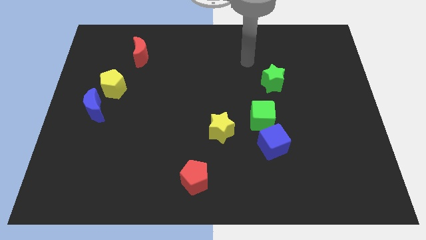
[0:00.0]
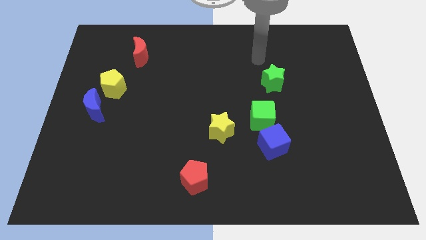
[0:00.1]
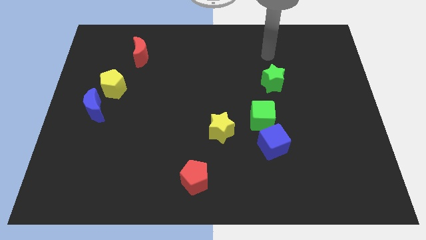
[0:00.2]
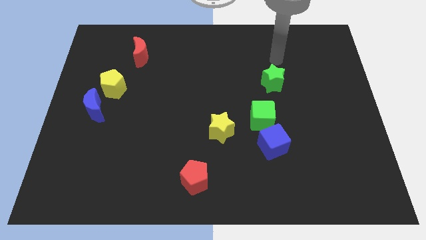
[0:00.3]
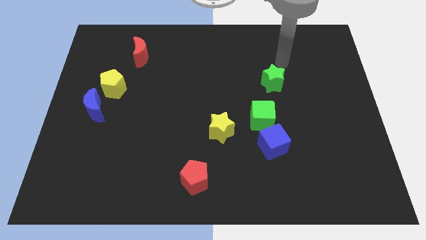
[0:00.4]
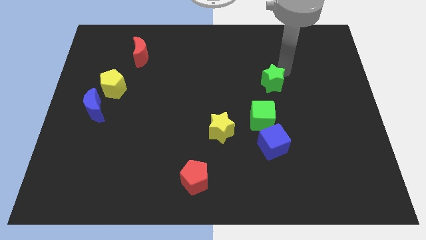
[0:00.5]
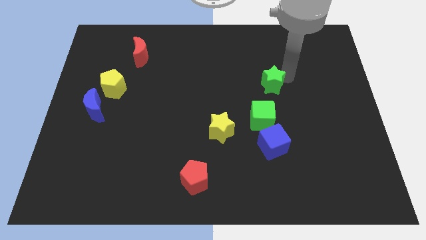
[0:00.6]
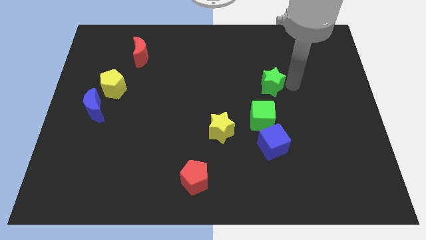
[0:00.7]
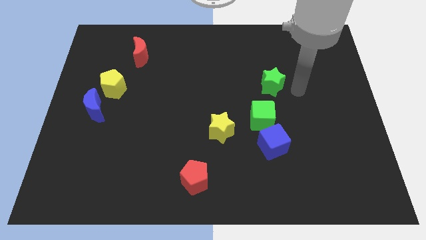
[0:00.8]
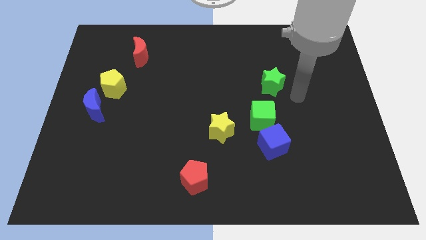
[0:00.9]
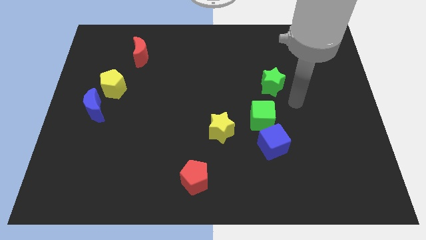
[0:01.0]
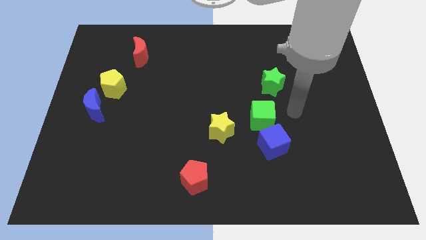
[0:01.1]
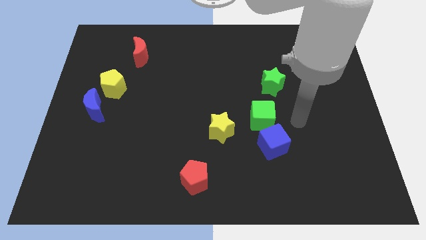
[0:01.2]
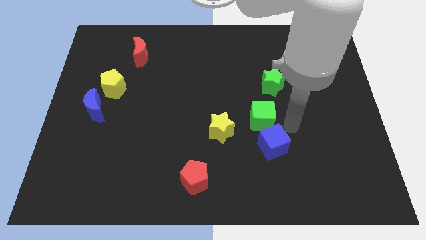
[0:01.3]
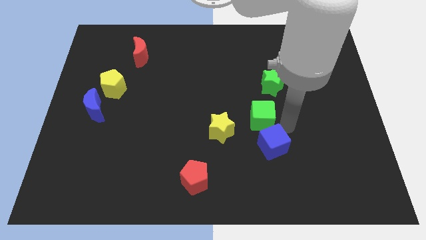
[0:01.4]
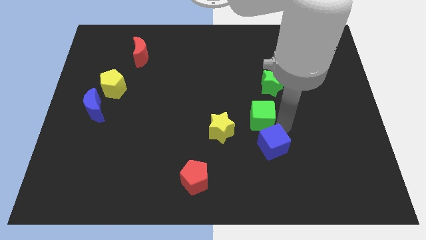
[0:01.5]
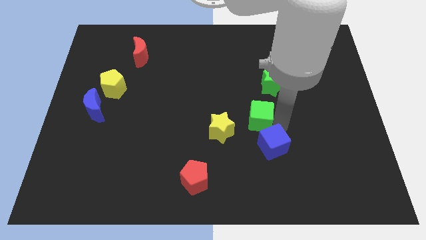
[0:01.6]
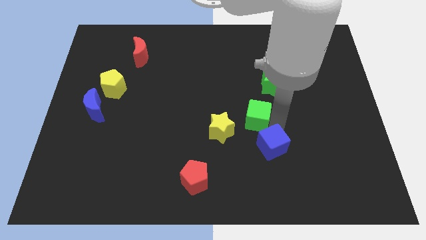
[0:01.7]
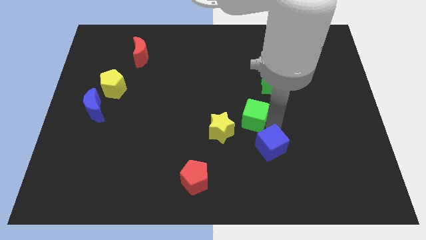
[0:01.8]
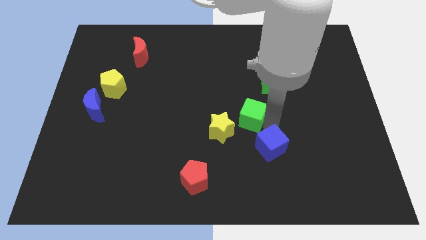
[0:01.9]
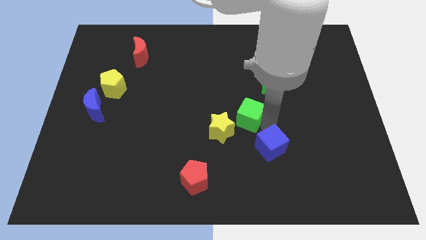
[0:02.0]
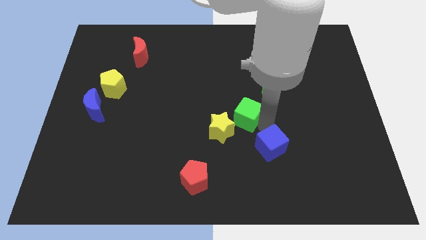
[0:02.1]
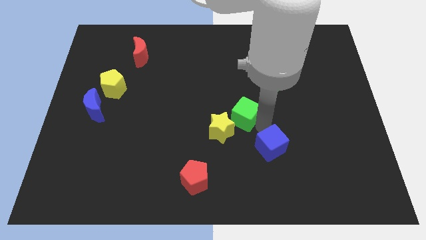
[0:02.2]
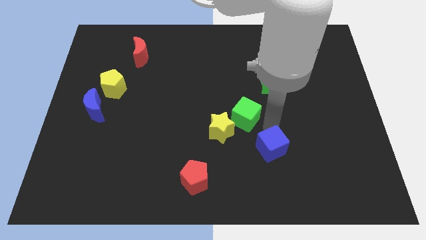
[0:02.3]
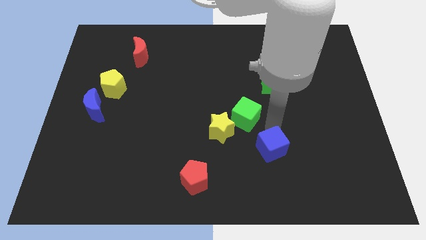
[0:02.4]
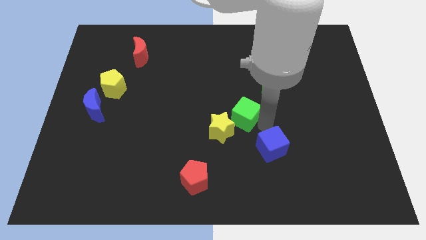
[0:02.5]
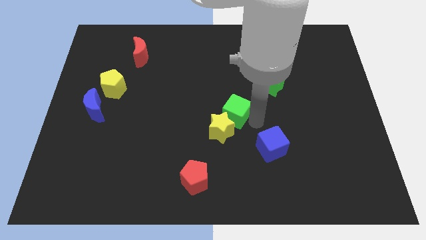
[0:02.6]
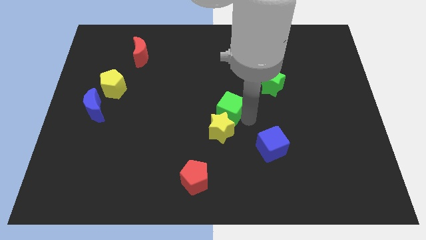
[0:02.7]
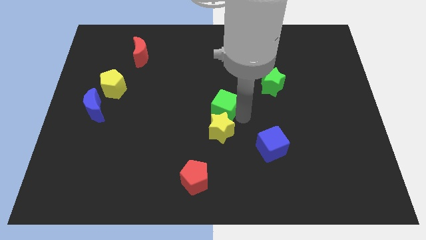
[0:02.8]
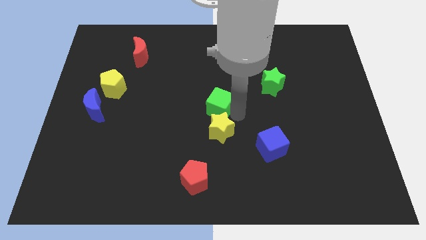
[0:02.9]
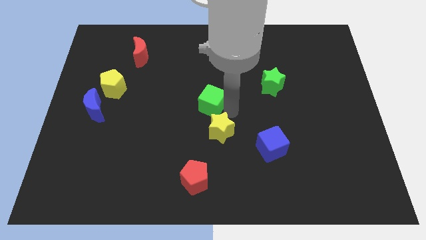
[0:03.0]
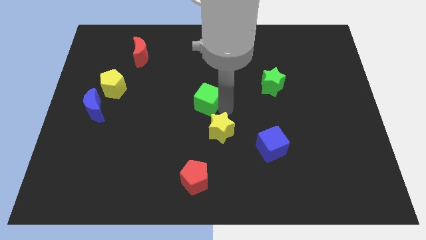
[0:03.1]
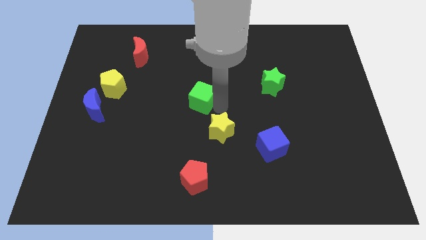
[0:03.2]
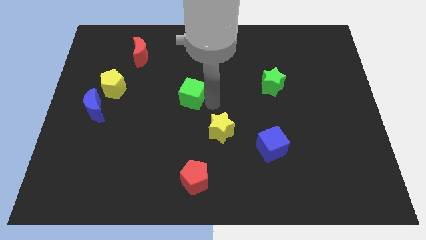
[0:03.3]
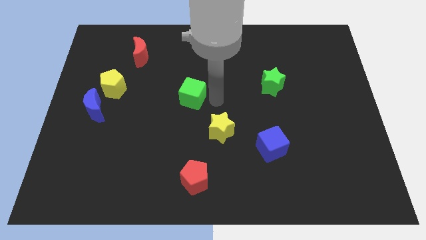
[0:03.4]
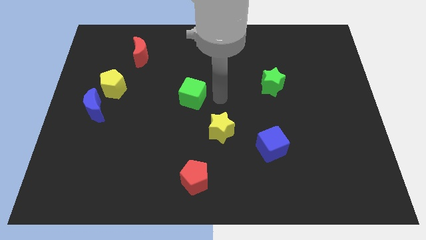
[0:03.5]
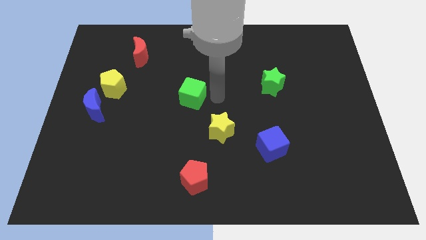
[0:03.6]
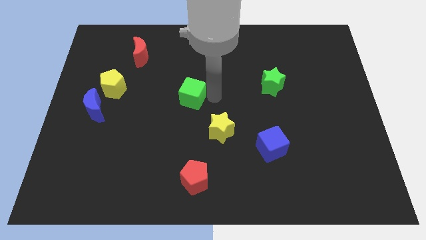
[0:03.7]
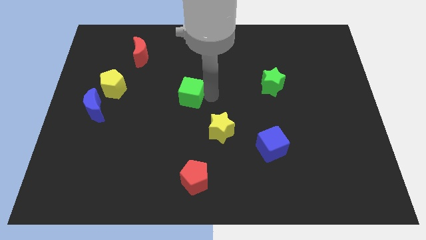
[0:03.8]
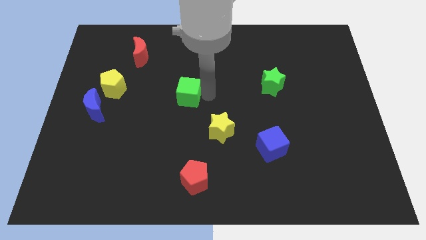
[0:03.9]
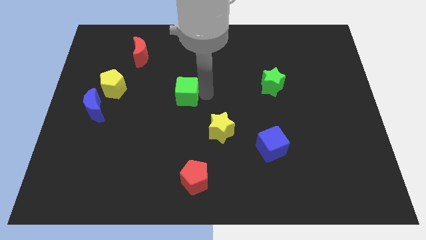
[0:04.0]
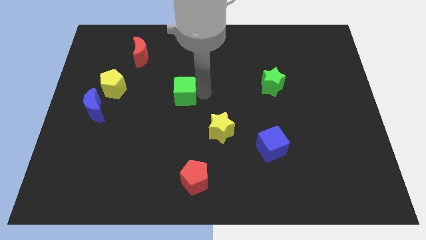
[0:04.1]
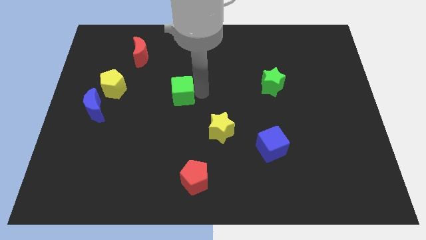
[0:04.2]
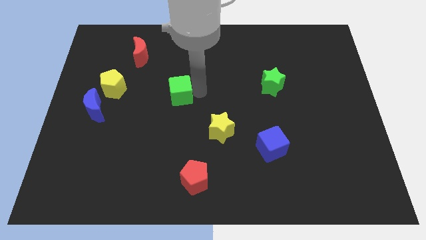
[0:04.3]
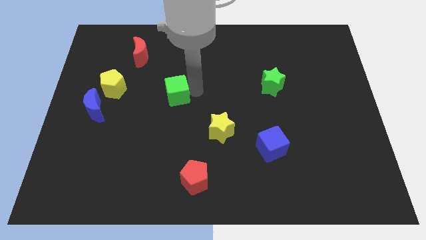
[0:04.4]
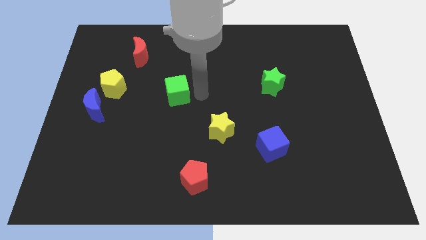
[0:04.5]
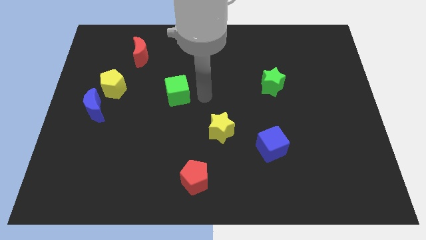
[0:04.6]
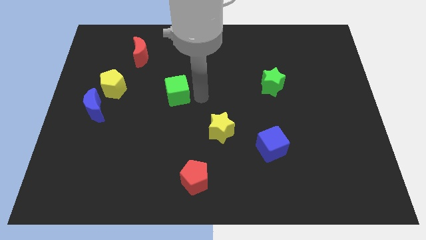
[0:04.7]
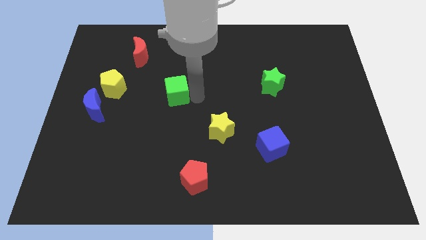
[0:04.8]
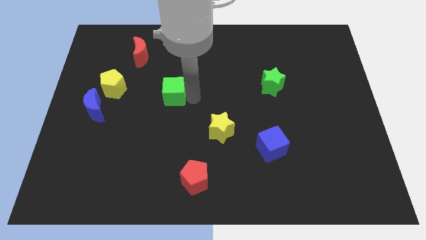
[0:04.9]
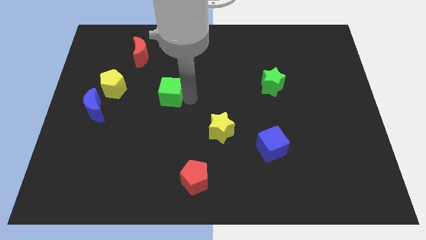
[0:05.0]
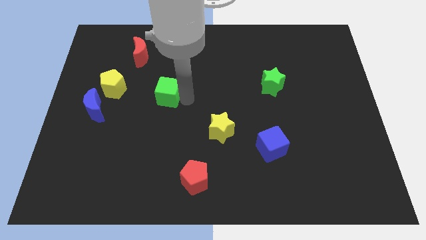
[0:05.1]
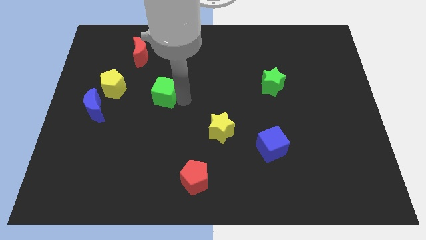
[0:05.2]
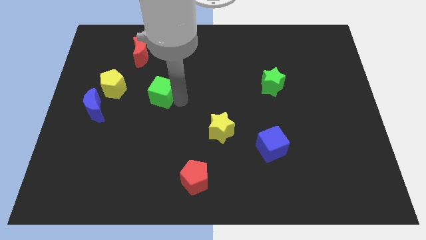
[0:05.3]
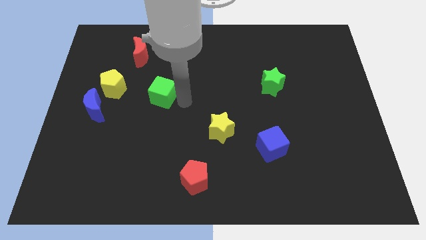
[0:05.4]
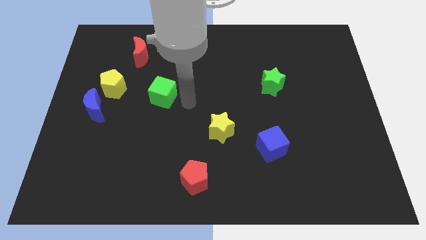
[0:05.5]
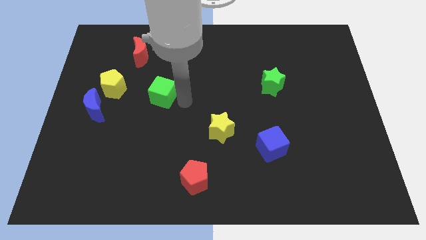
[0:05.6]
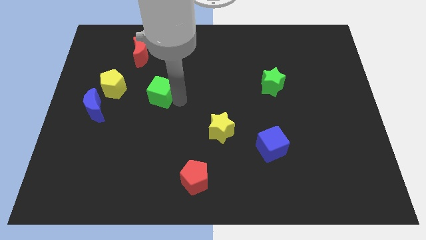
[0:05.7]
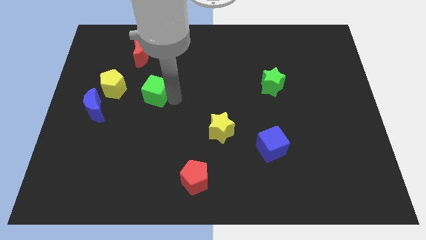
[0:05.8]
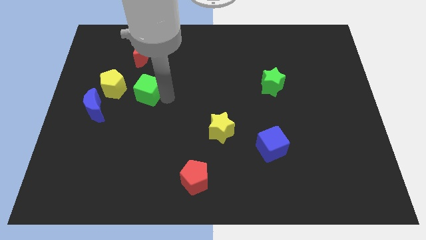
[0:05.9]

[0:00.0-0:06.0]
push the green cube below the red moon

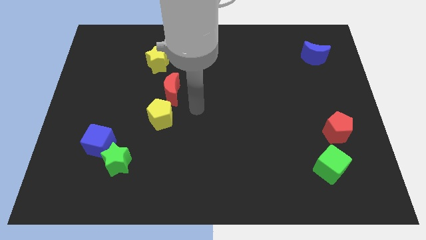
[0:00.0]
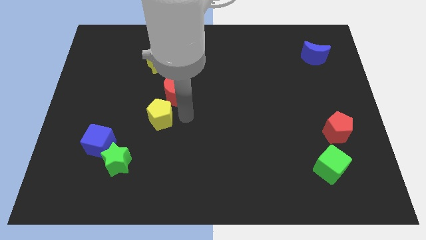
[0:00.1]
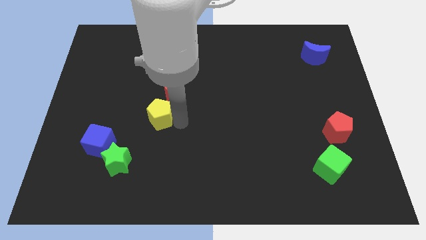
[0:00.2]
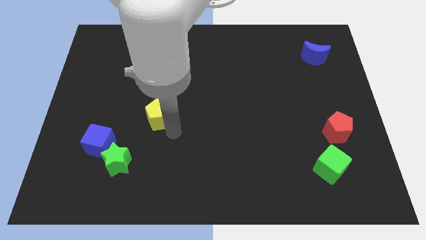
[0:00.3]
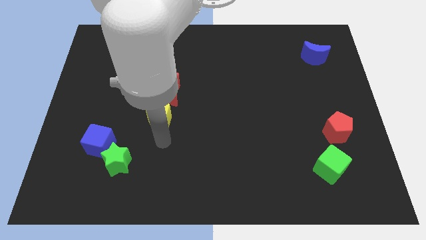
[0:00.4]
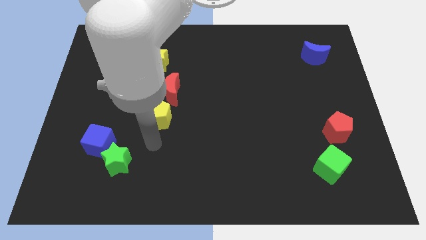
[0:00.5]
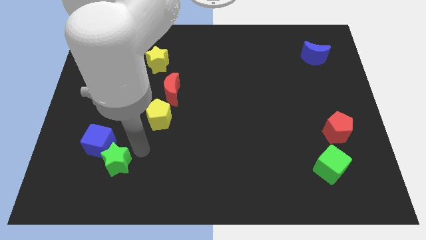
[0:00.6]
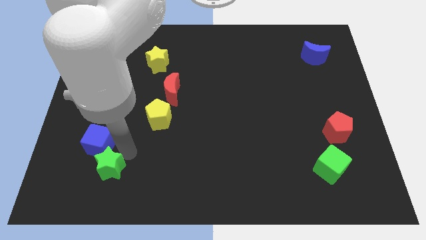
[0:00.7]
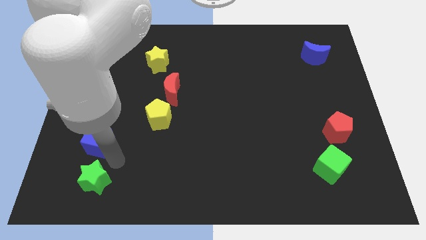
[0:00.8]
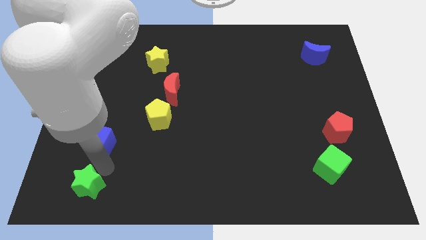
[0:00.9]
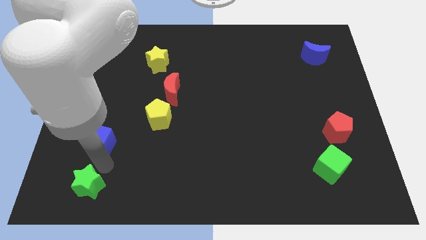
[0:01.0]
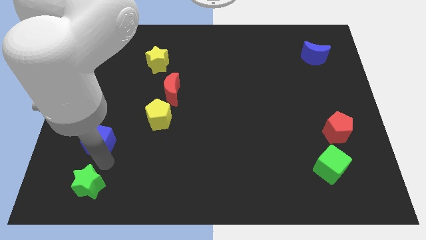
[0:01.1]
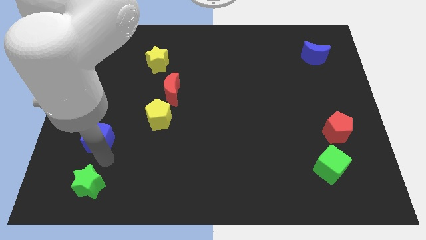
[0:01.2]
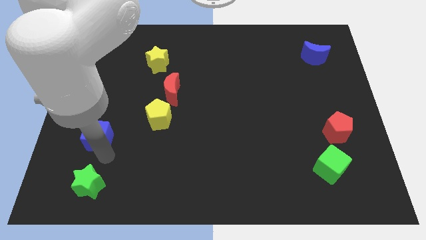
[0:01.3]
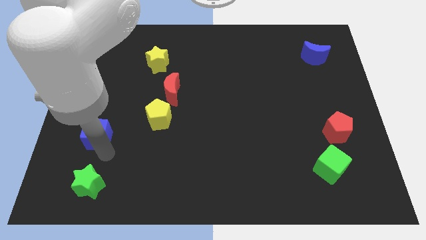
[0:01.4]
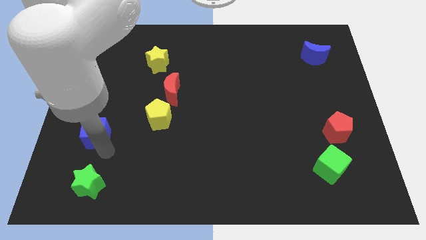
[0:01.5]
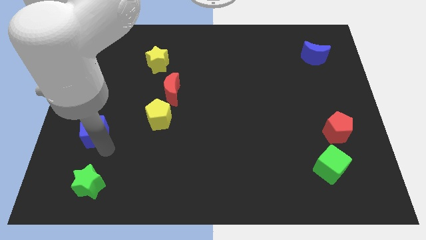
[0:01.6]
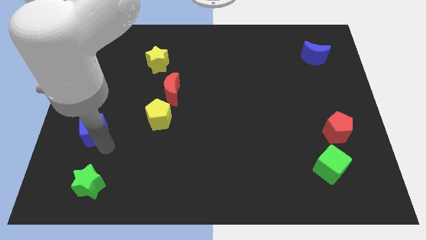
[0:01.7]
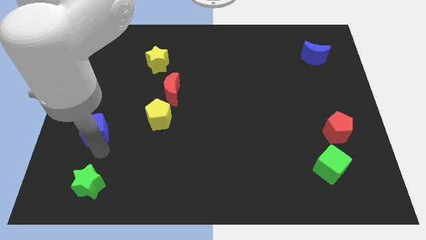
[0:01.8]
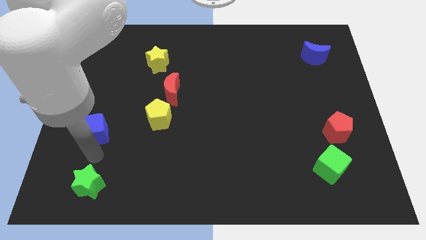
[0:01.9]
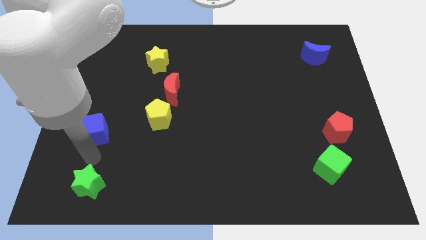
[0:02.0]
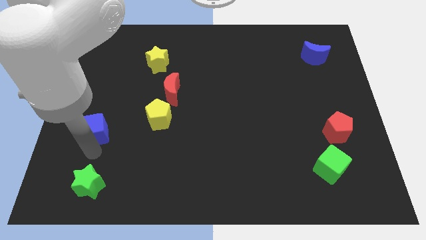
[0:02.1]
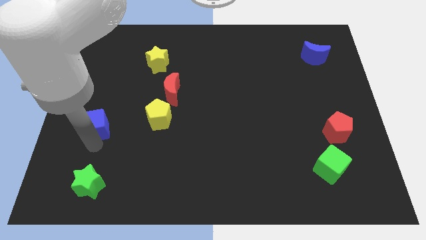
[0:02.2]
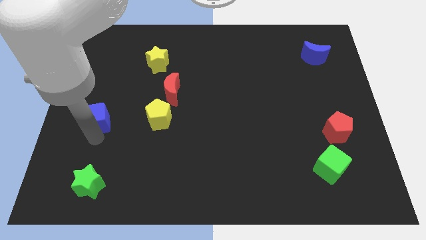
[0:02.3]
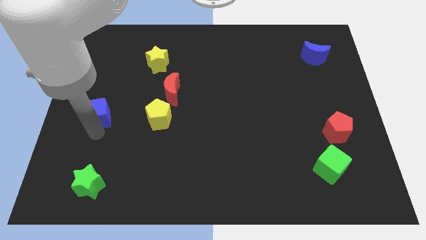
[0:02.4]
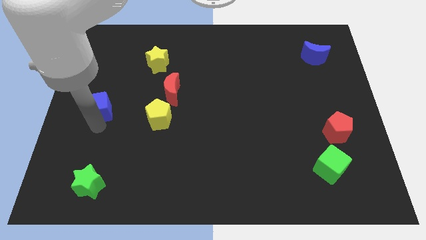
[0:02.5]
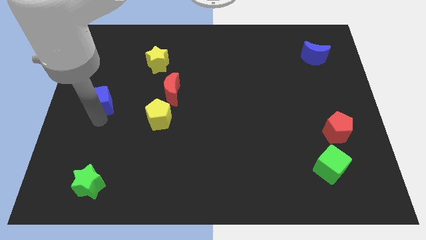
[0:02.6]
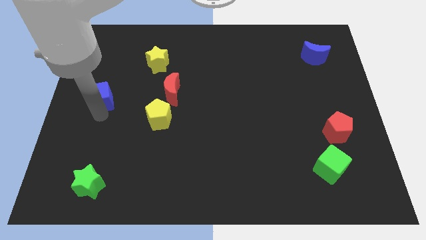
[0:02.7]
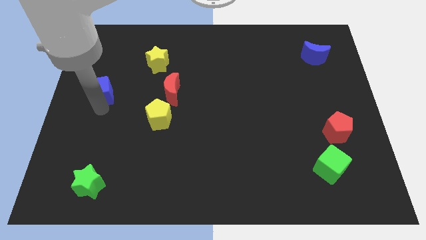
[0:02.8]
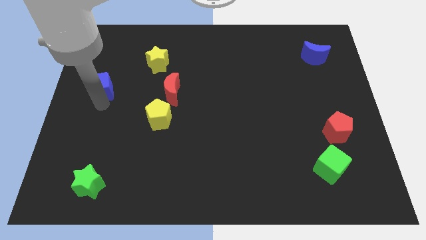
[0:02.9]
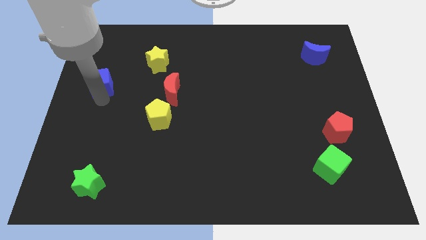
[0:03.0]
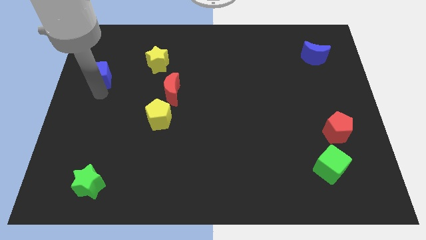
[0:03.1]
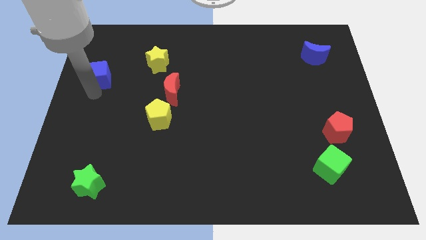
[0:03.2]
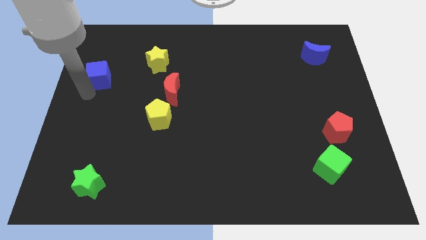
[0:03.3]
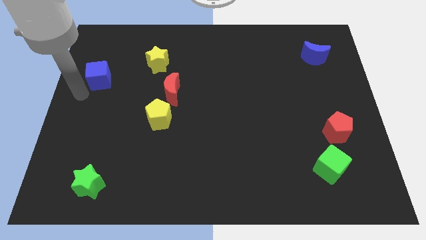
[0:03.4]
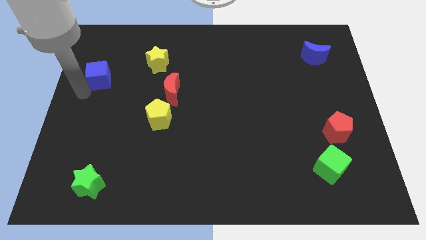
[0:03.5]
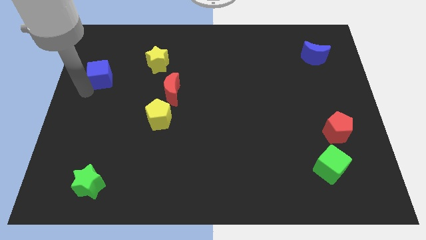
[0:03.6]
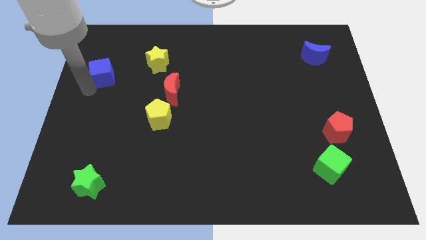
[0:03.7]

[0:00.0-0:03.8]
push the blue cube to the left side of the yellow star
